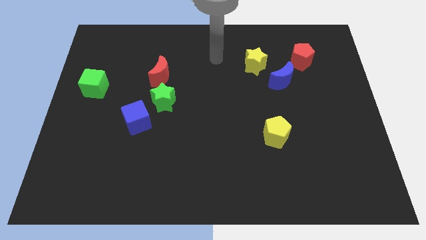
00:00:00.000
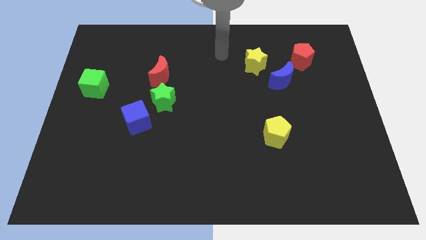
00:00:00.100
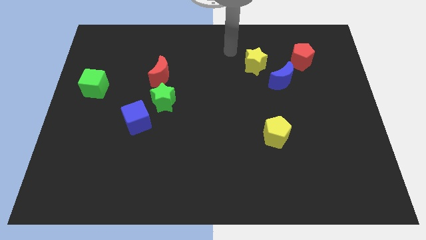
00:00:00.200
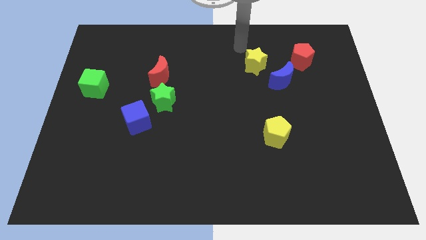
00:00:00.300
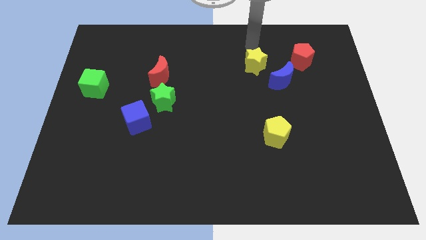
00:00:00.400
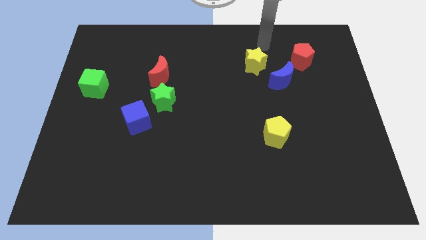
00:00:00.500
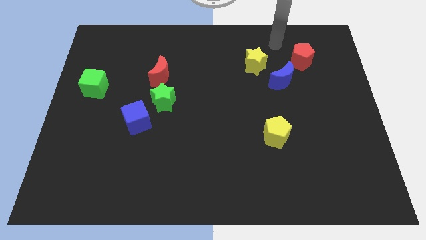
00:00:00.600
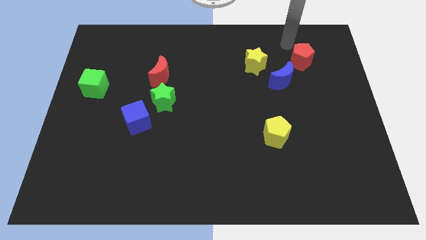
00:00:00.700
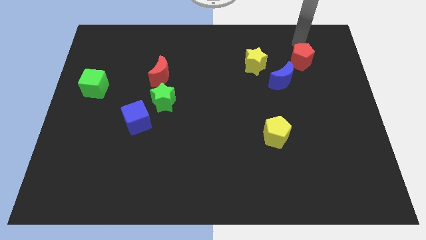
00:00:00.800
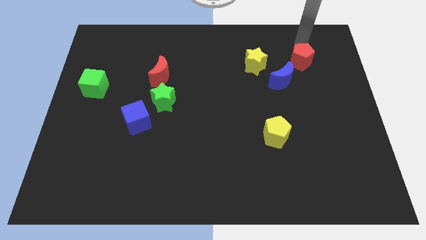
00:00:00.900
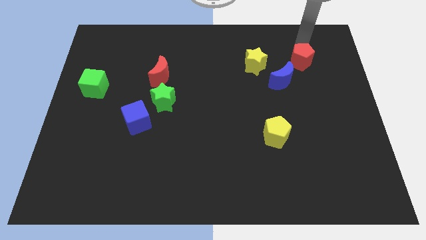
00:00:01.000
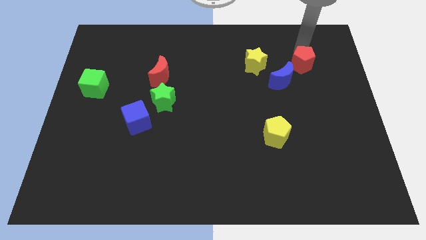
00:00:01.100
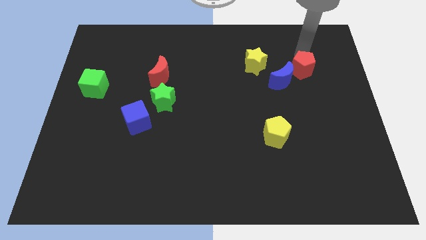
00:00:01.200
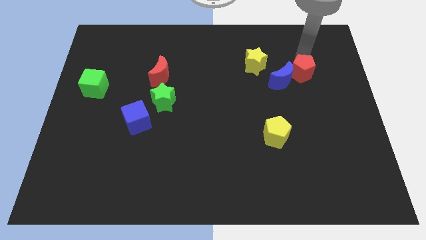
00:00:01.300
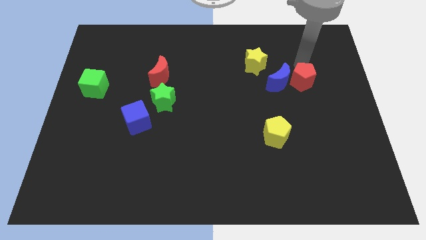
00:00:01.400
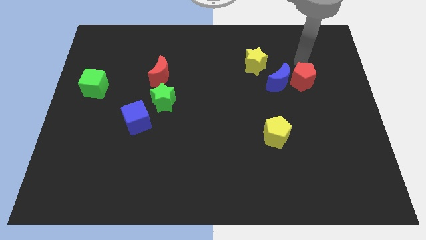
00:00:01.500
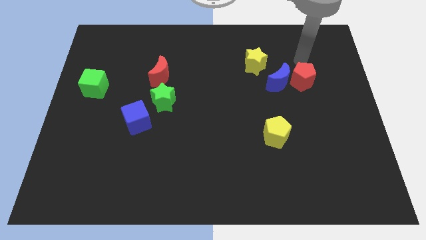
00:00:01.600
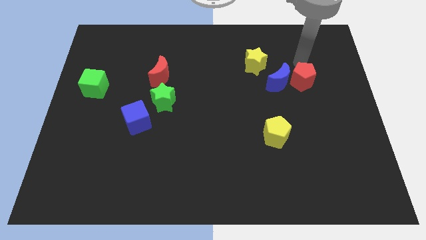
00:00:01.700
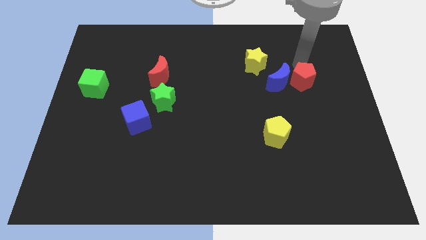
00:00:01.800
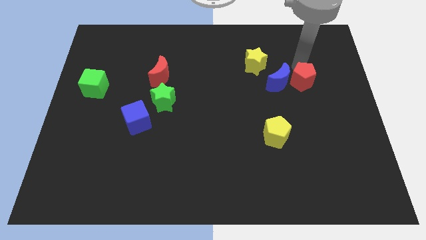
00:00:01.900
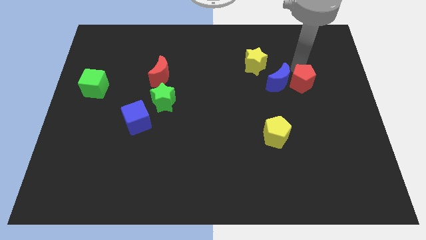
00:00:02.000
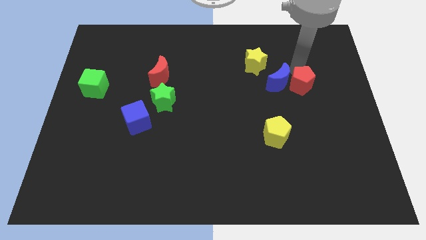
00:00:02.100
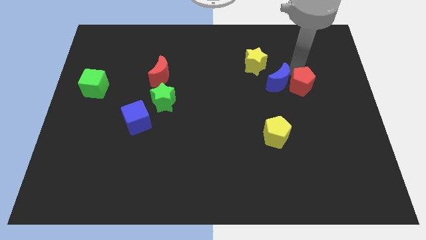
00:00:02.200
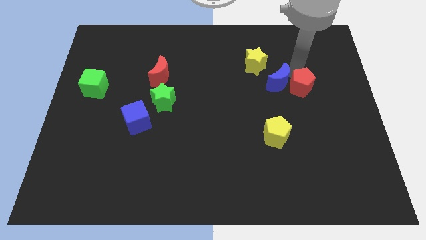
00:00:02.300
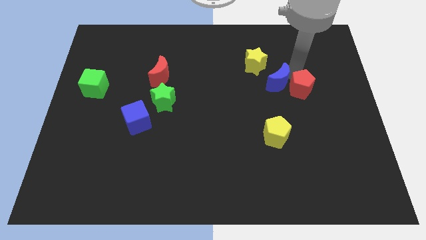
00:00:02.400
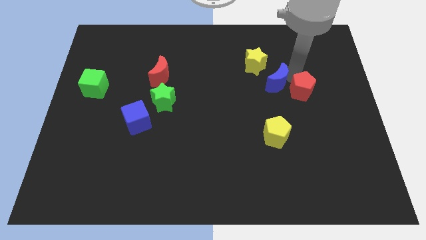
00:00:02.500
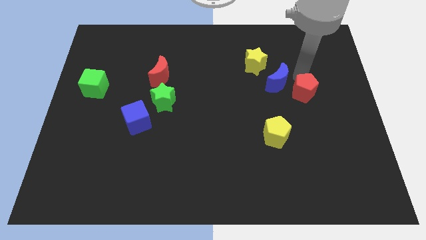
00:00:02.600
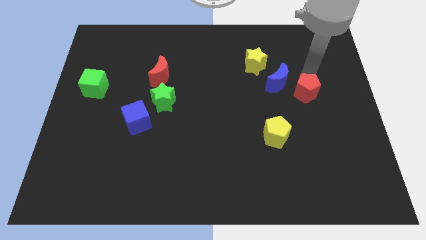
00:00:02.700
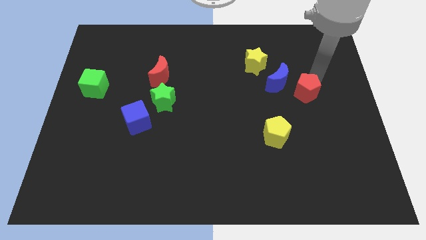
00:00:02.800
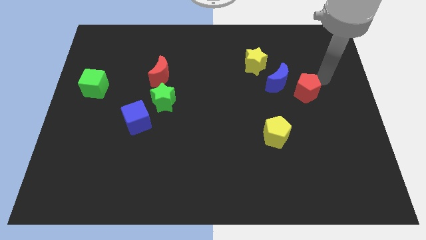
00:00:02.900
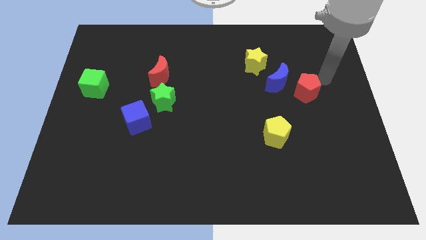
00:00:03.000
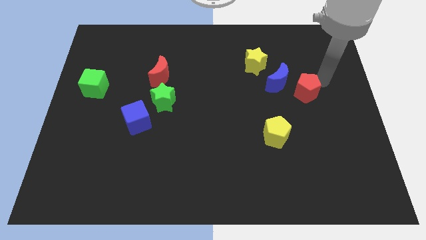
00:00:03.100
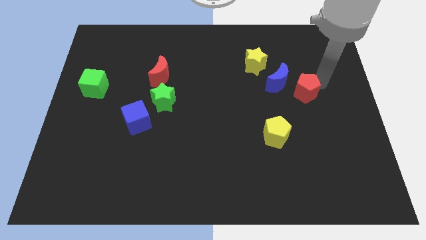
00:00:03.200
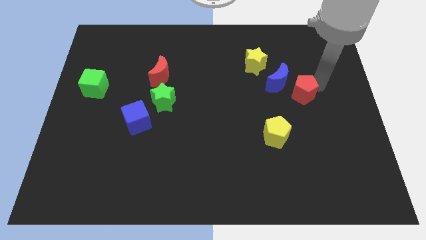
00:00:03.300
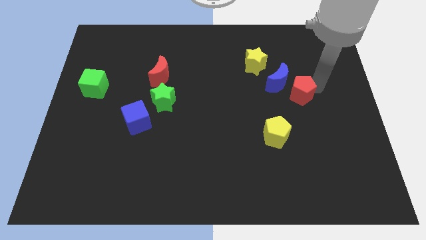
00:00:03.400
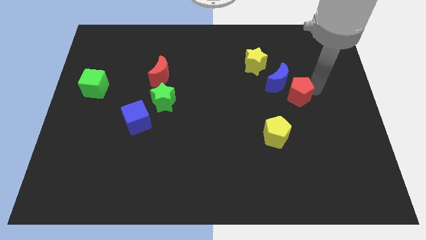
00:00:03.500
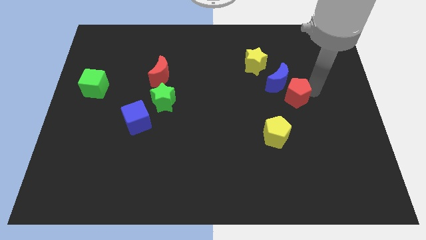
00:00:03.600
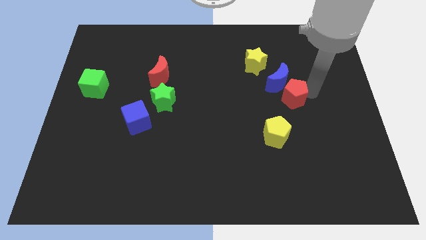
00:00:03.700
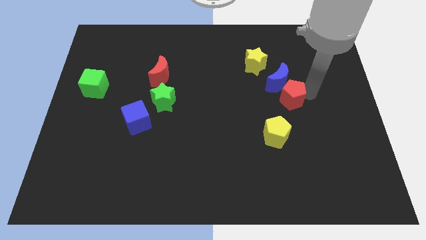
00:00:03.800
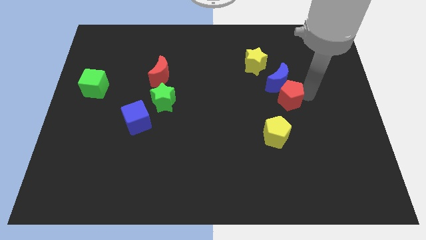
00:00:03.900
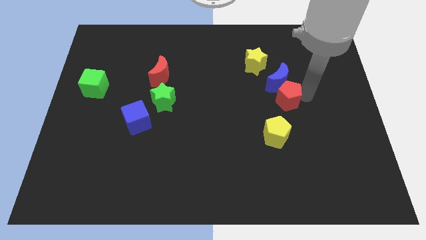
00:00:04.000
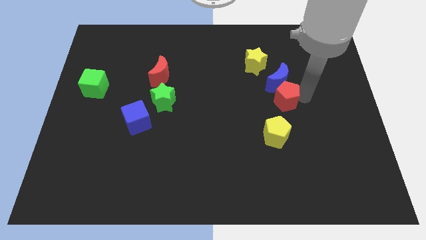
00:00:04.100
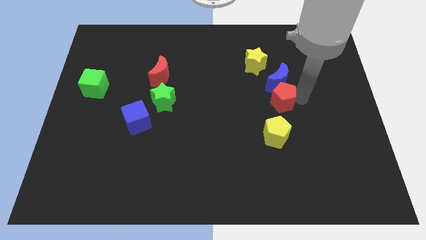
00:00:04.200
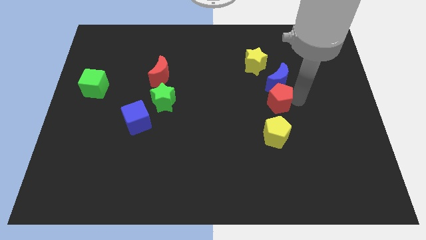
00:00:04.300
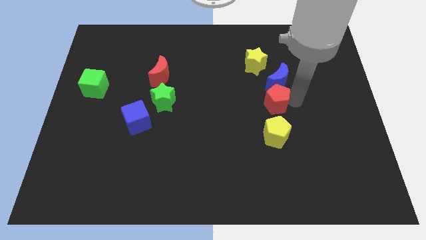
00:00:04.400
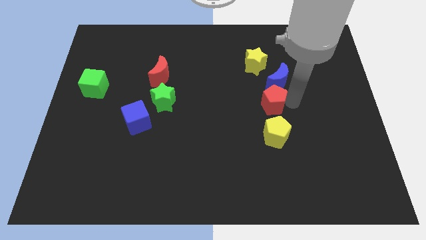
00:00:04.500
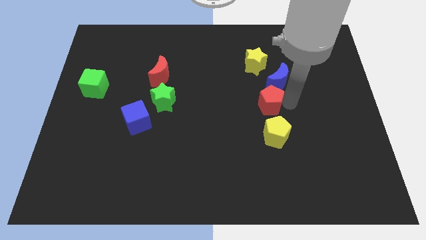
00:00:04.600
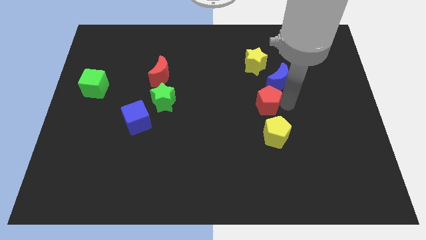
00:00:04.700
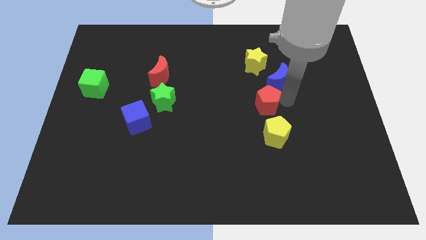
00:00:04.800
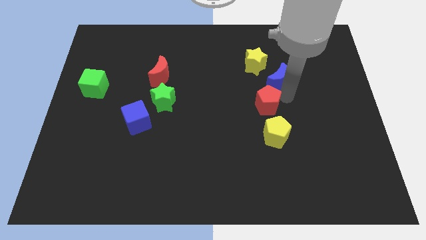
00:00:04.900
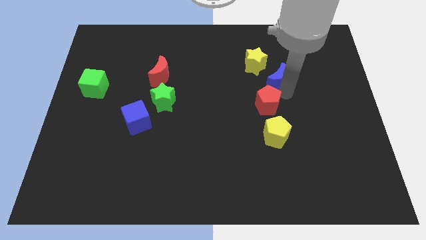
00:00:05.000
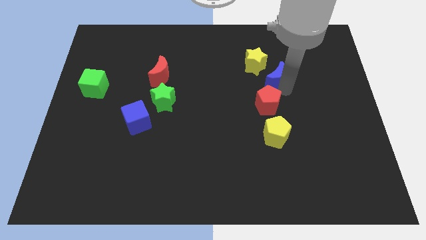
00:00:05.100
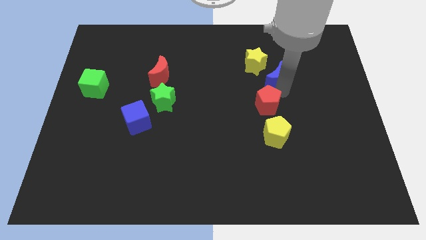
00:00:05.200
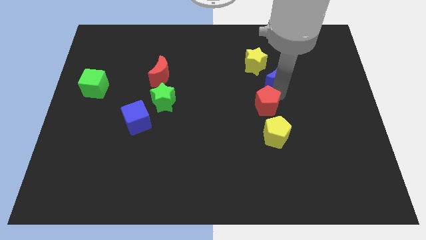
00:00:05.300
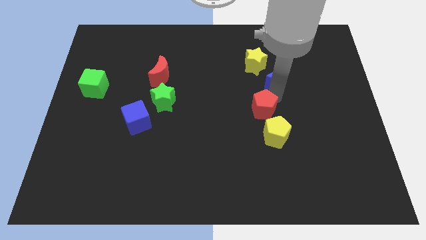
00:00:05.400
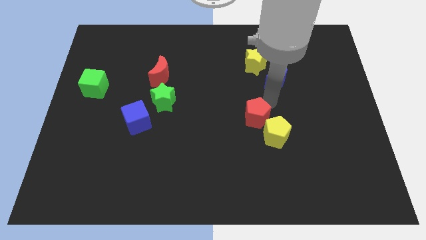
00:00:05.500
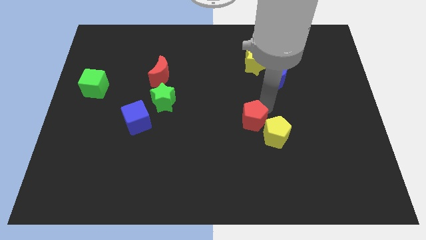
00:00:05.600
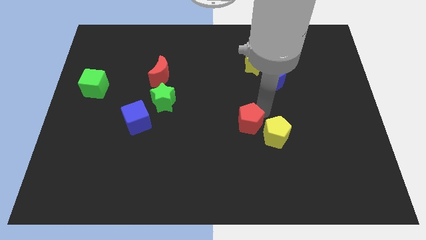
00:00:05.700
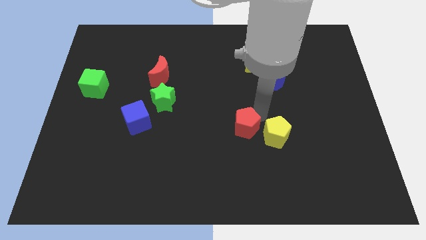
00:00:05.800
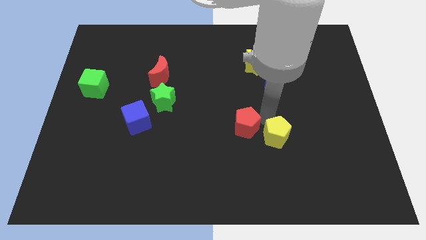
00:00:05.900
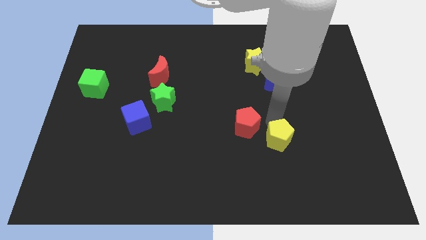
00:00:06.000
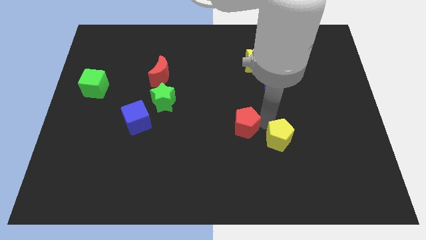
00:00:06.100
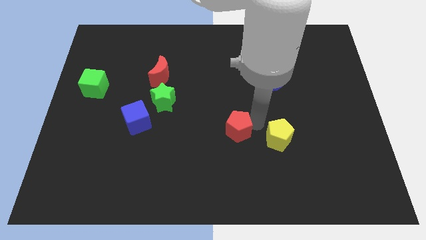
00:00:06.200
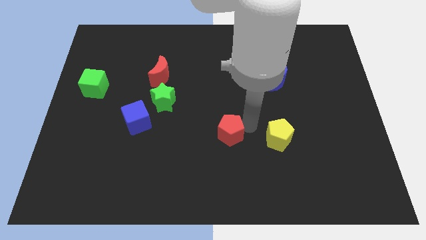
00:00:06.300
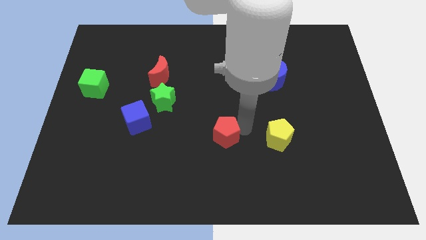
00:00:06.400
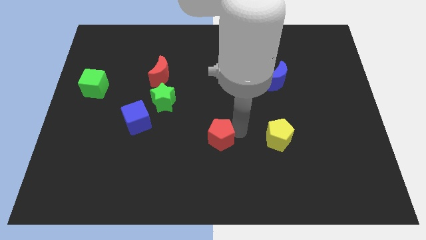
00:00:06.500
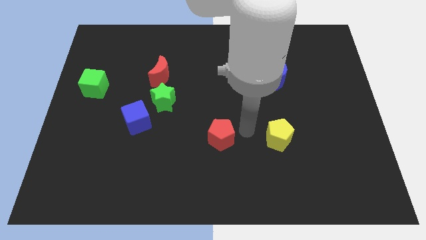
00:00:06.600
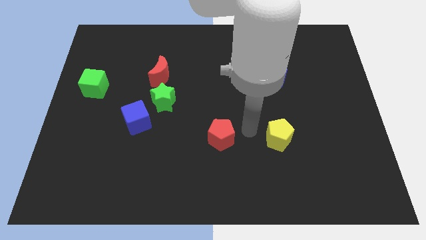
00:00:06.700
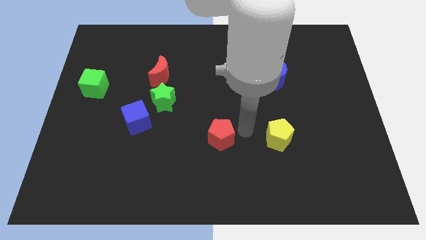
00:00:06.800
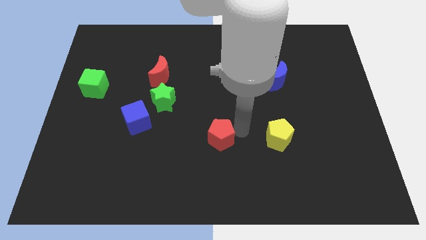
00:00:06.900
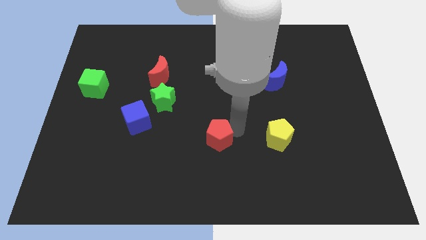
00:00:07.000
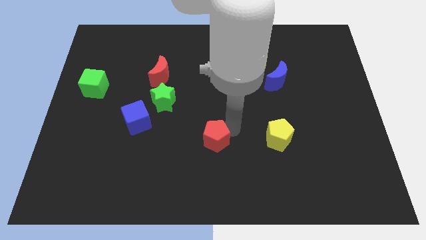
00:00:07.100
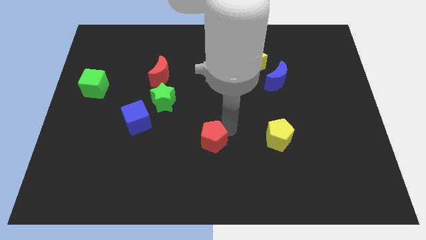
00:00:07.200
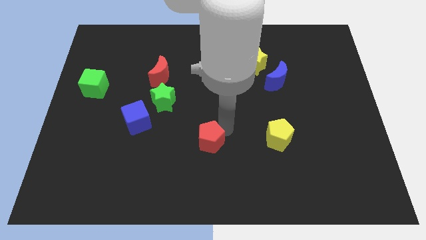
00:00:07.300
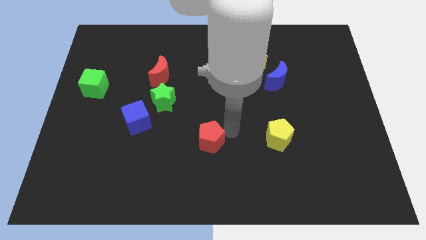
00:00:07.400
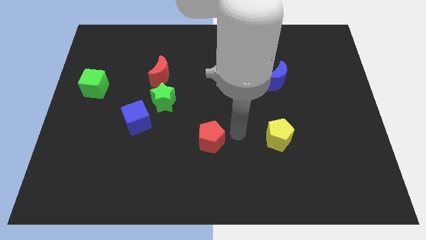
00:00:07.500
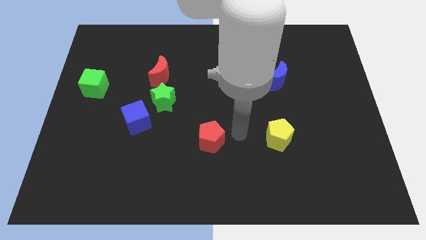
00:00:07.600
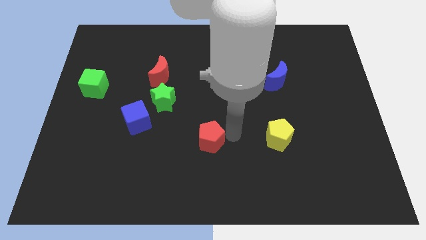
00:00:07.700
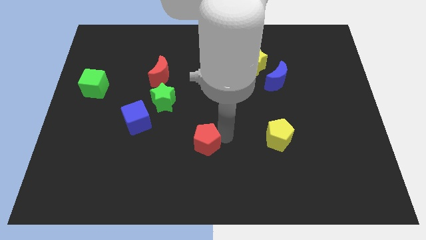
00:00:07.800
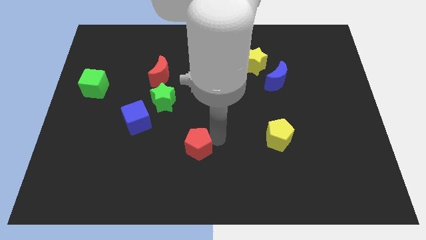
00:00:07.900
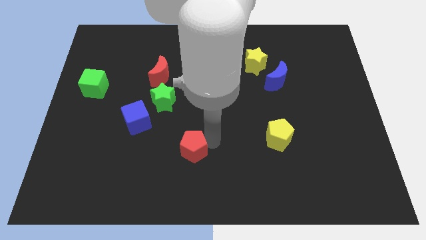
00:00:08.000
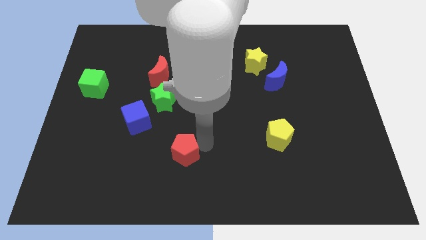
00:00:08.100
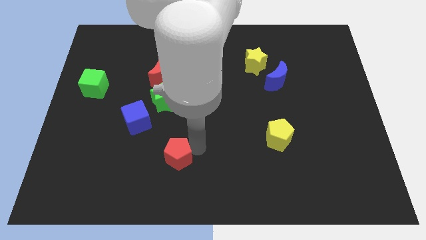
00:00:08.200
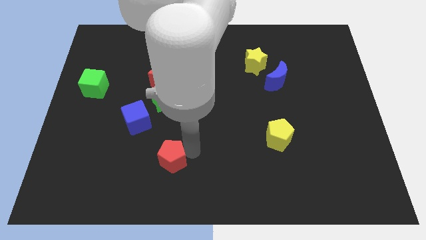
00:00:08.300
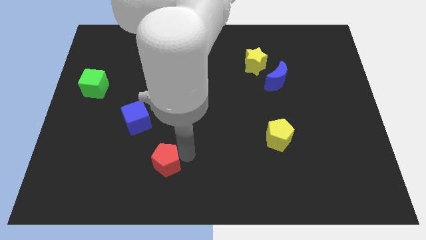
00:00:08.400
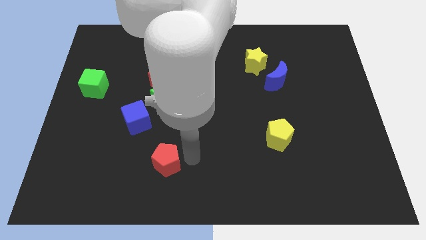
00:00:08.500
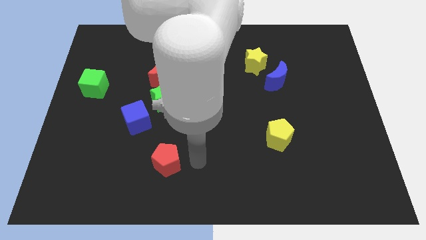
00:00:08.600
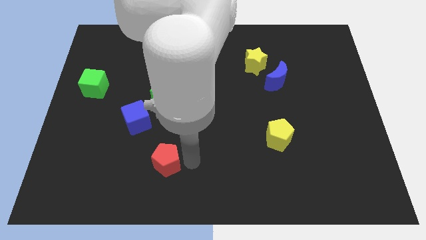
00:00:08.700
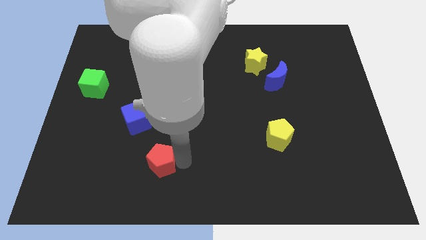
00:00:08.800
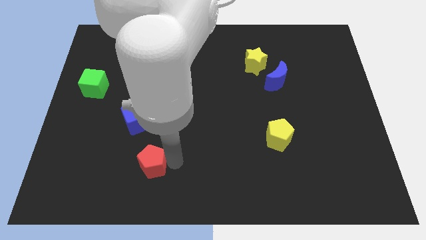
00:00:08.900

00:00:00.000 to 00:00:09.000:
move the red pentagon to the bottom side of the blue cube
